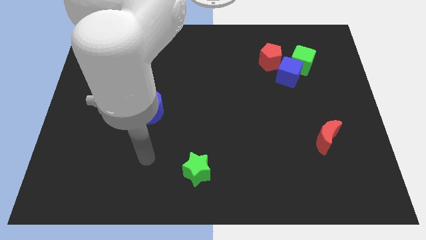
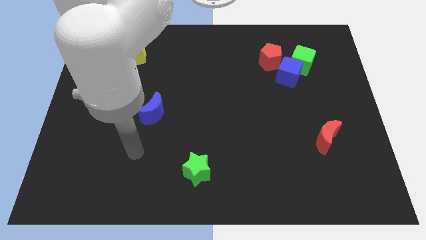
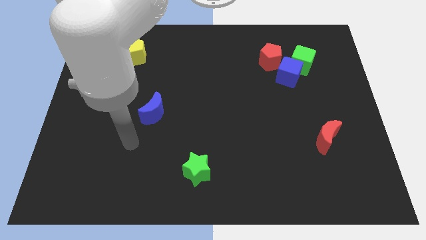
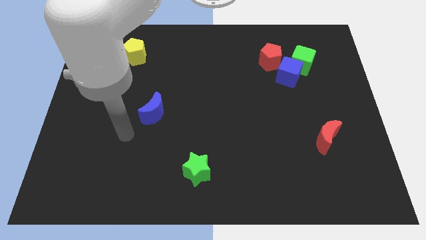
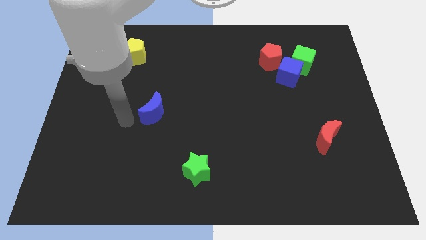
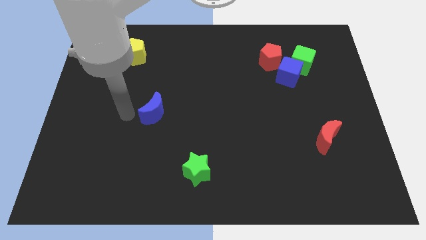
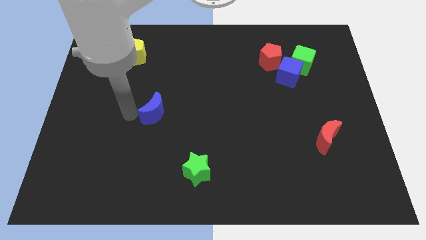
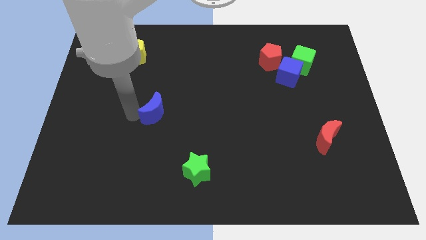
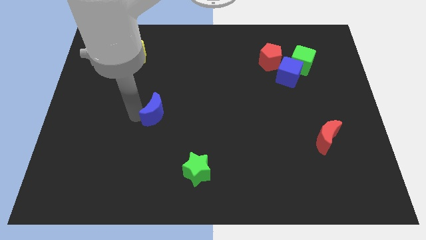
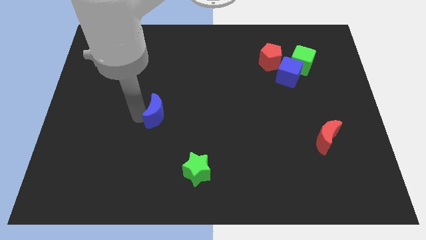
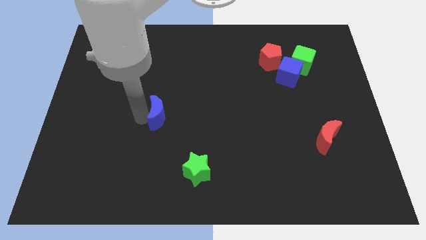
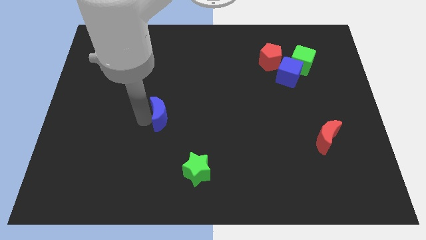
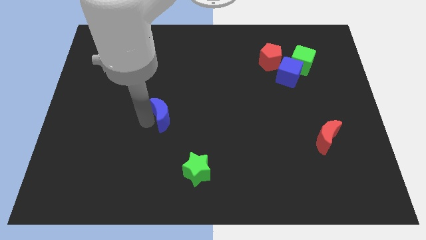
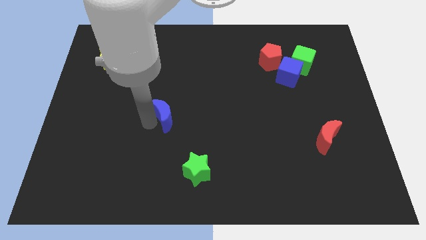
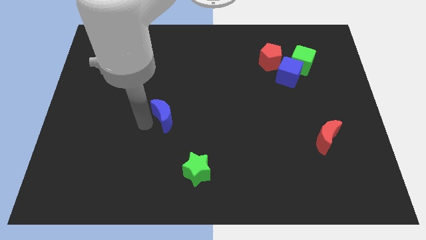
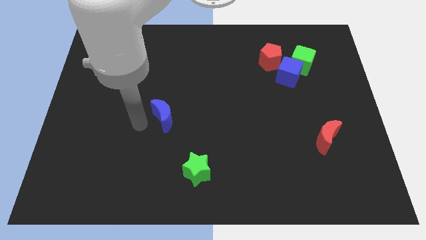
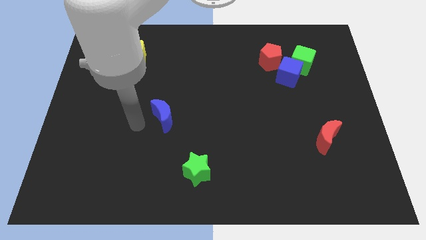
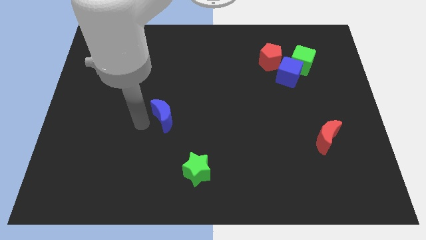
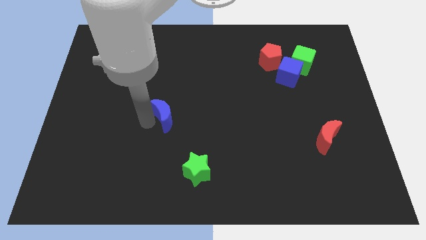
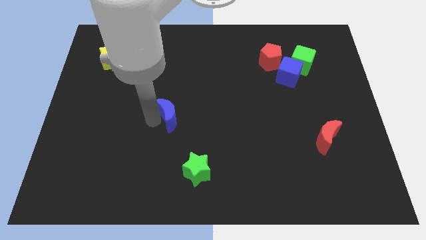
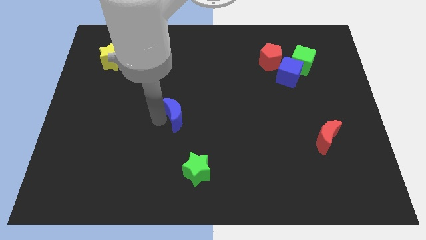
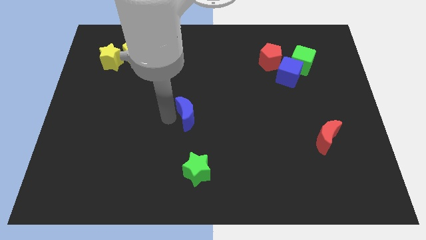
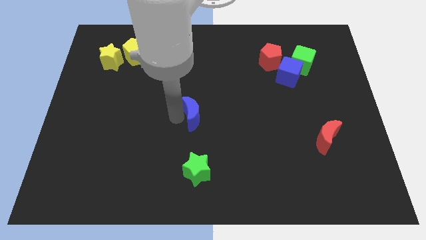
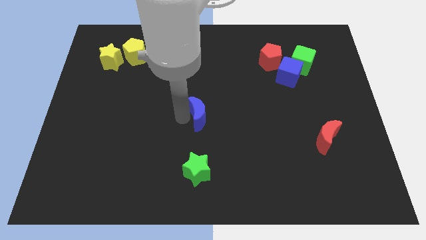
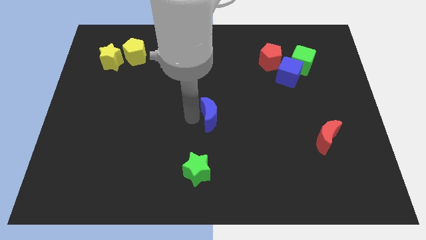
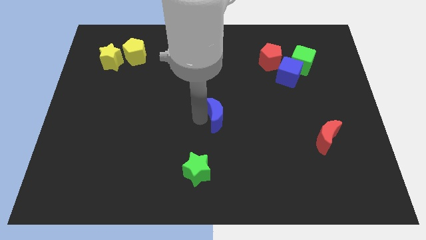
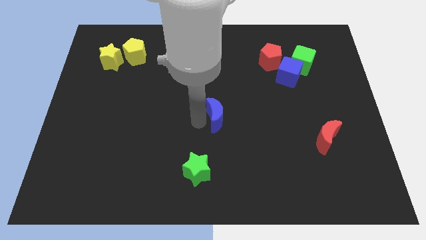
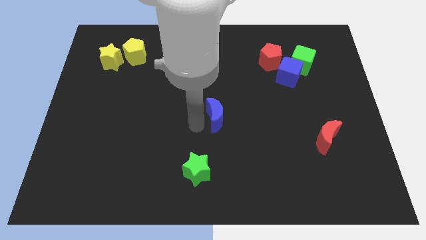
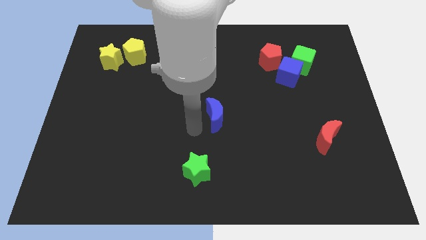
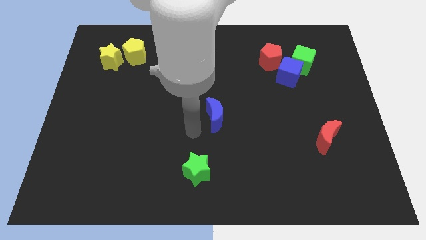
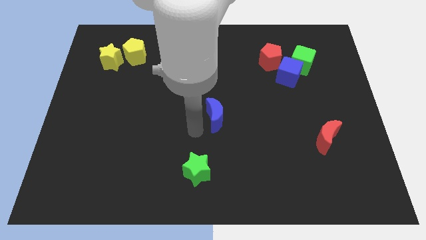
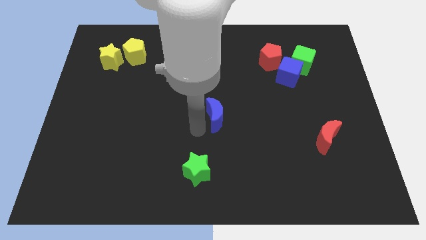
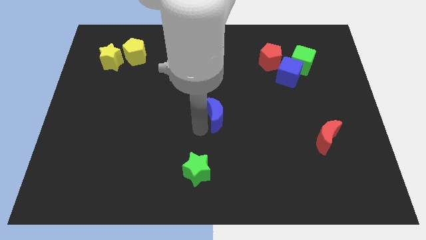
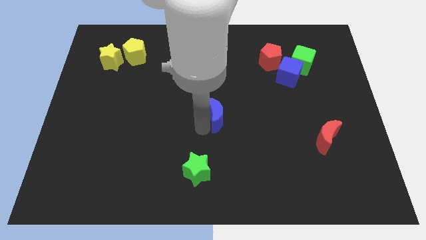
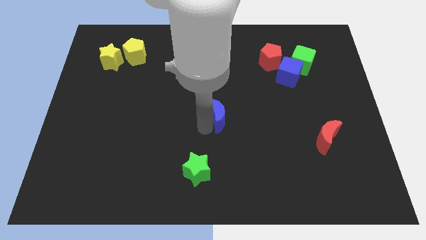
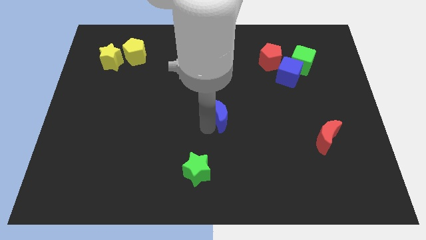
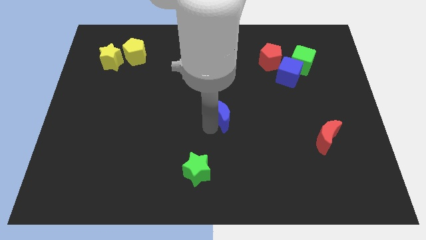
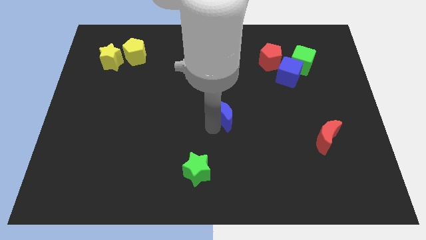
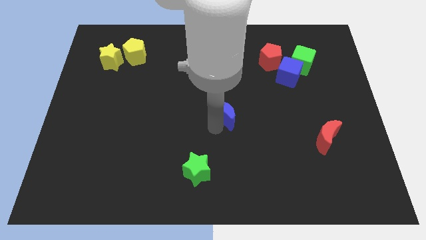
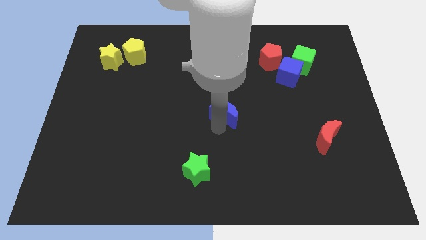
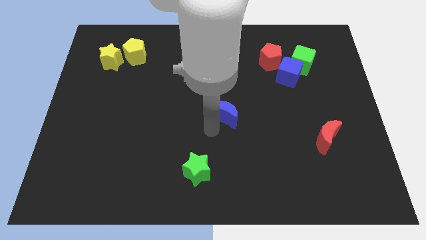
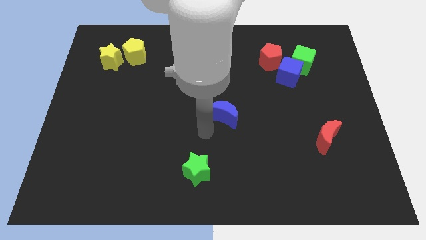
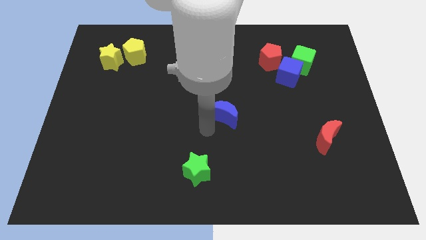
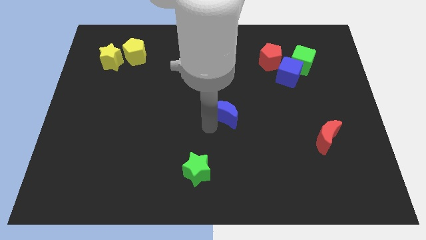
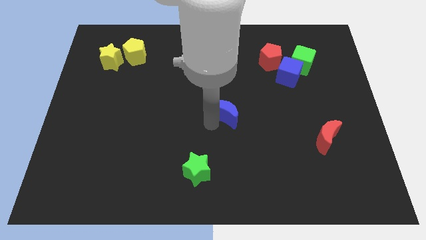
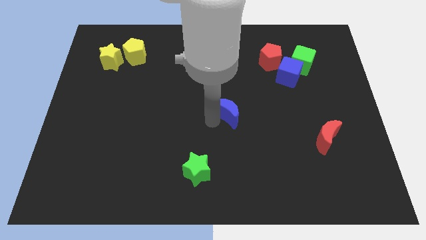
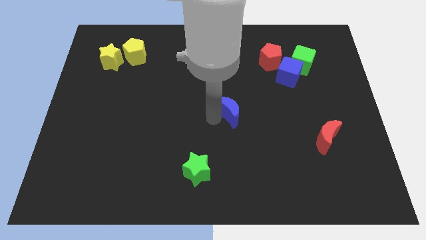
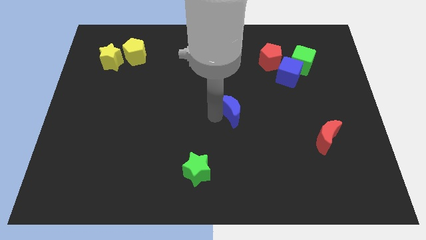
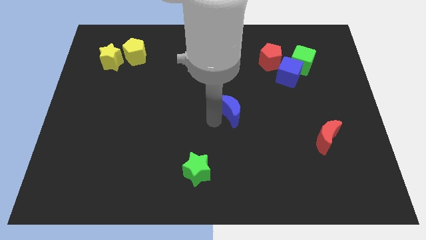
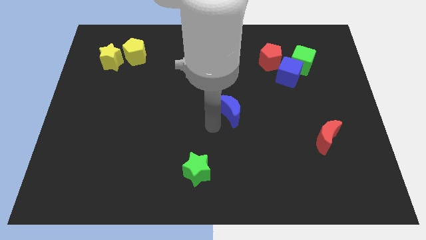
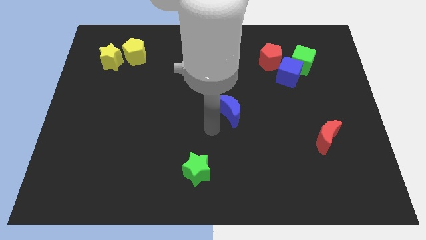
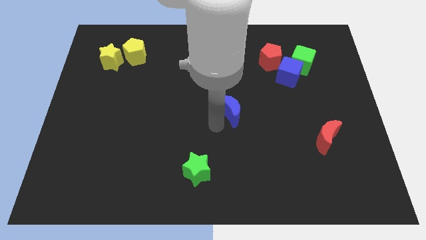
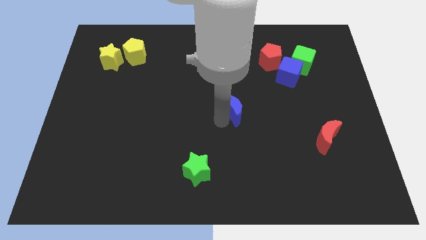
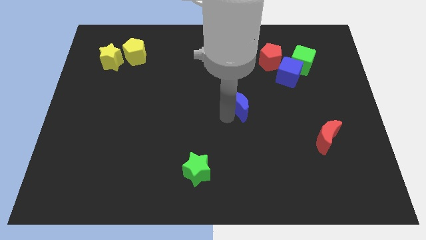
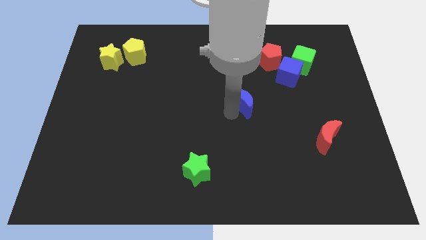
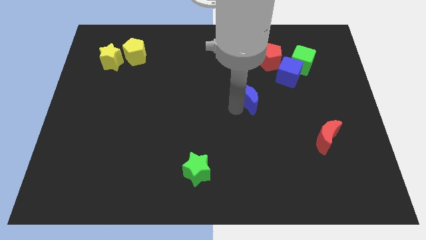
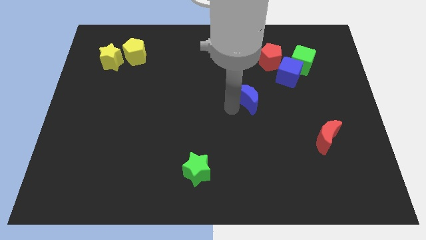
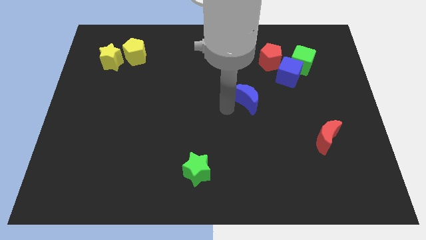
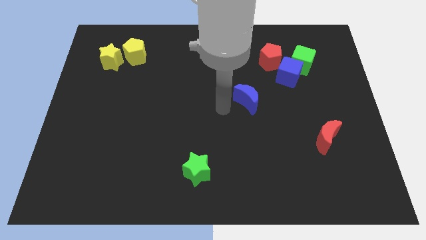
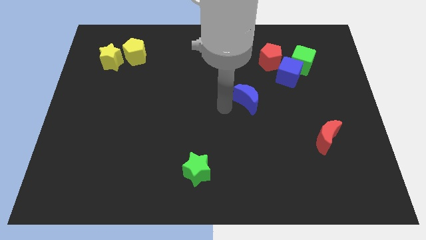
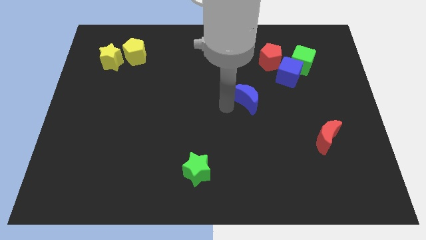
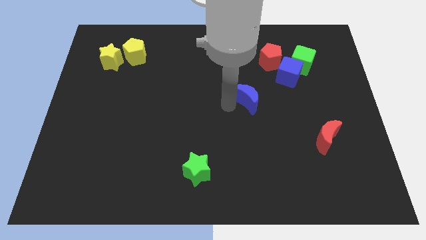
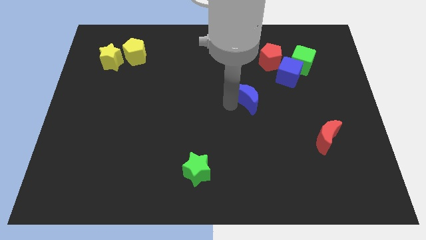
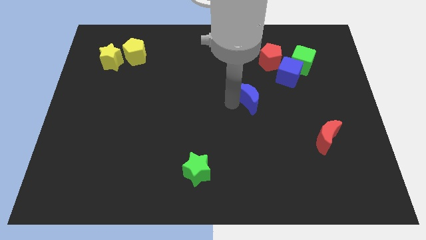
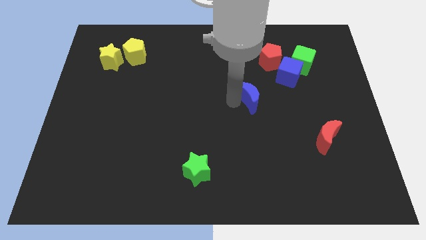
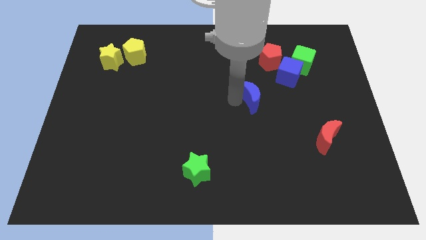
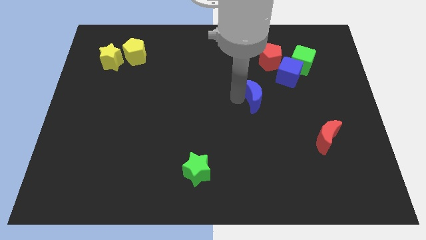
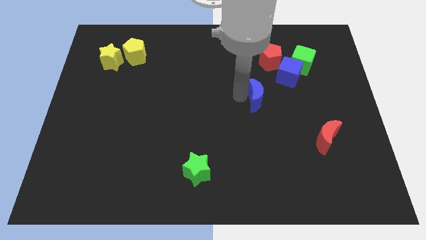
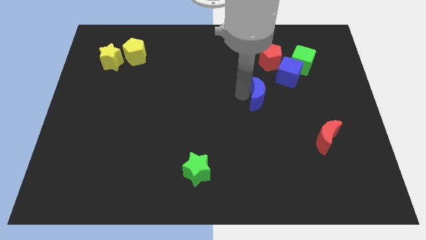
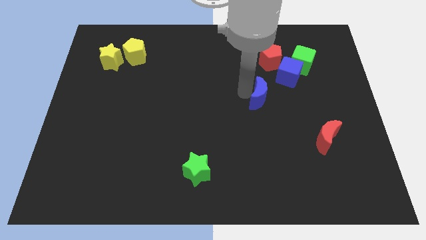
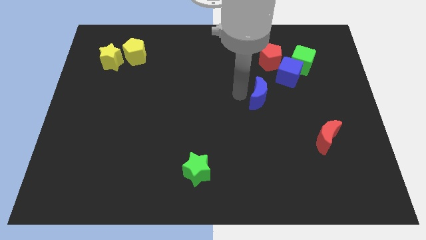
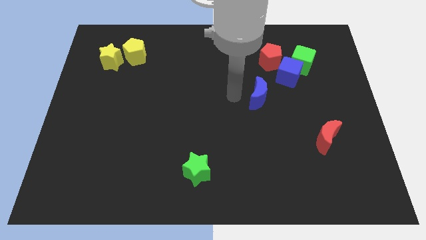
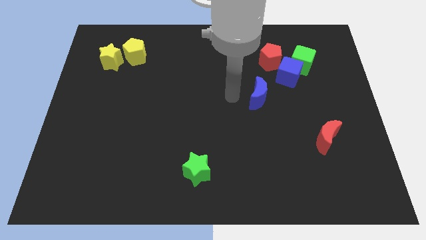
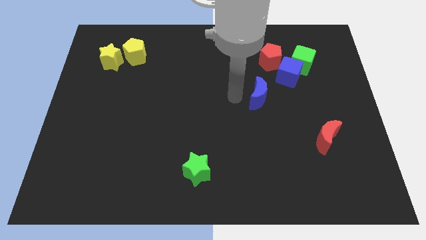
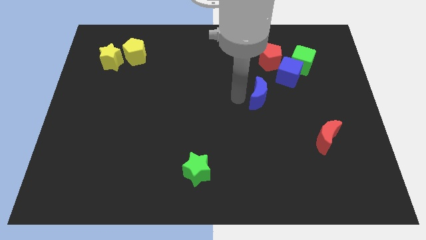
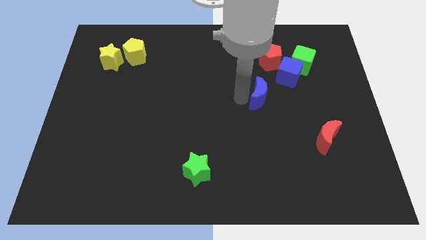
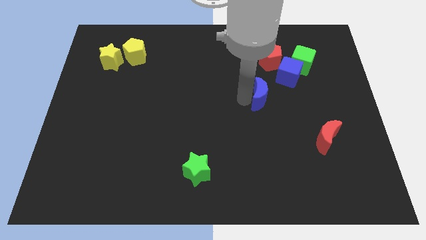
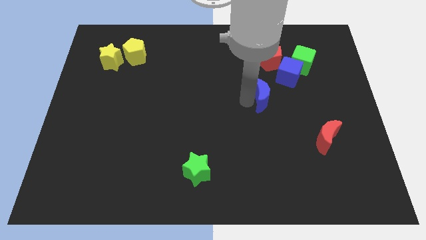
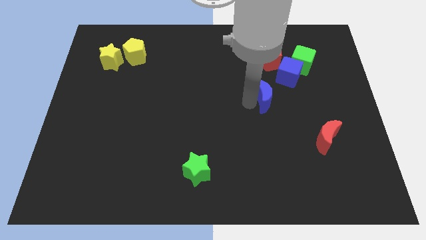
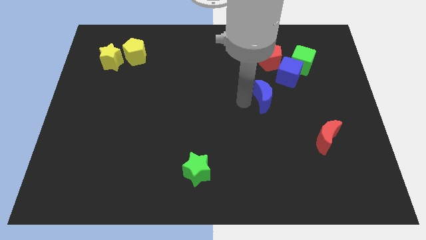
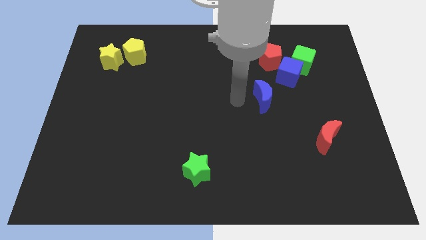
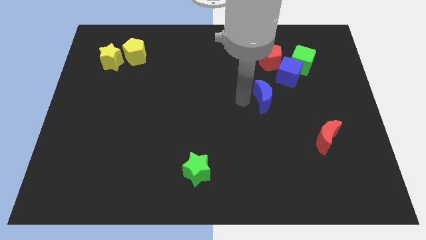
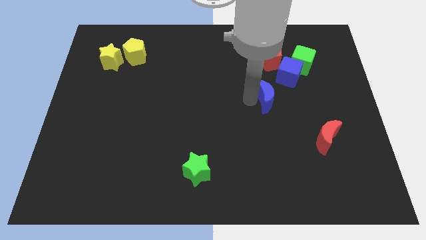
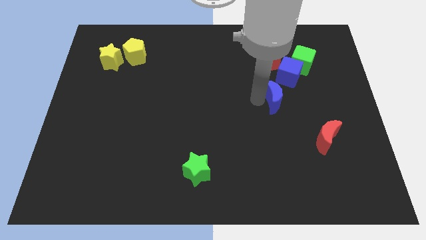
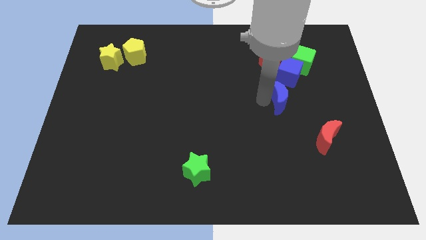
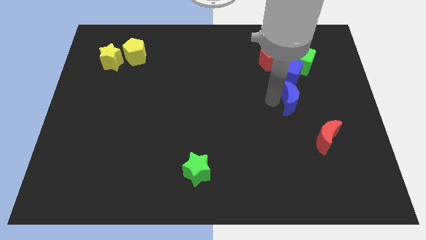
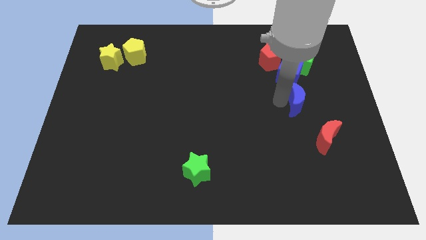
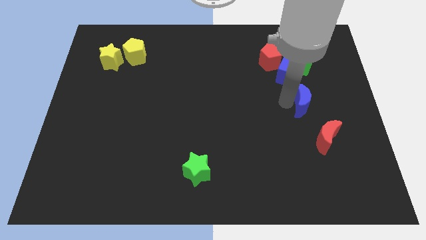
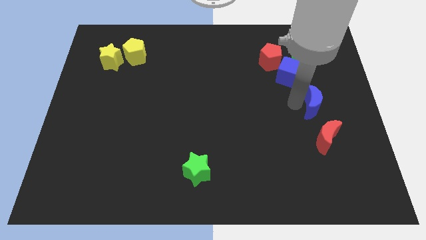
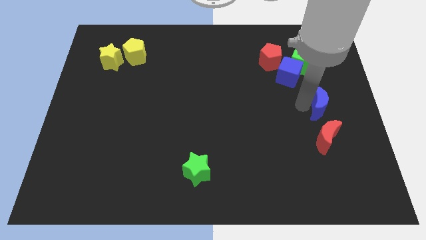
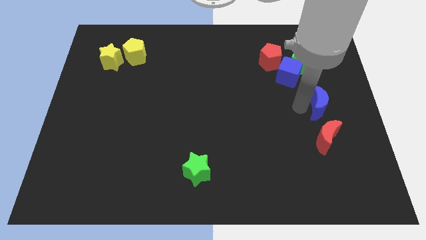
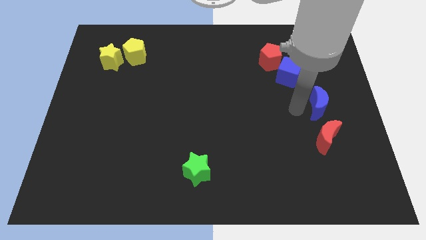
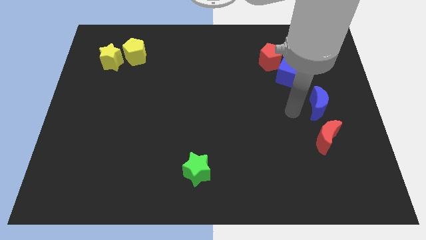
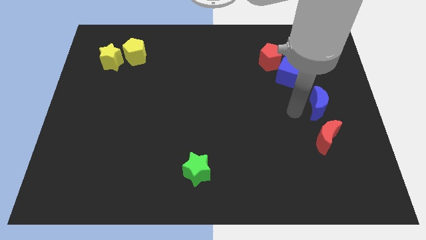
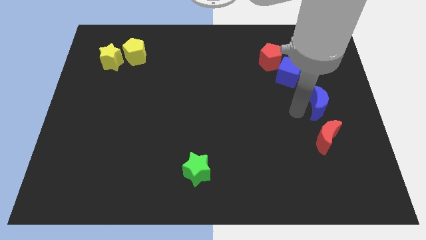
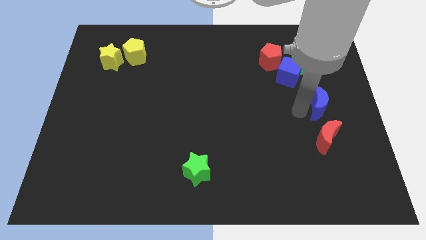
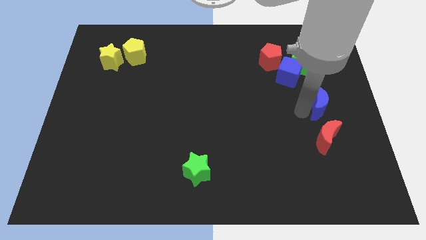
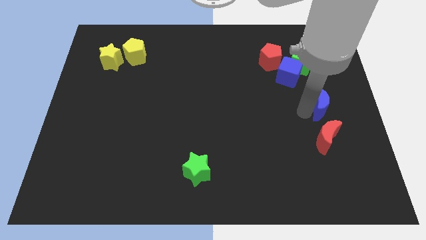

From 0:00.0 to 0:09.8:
slide the blue moon to the right side of the board
